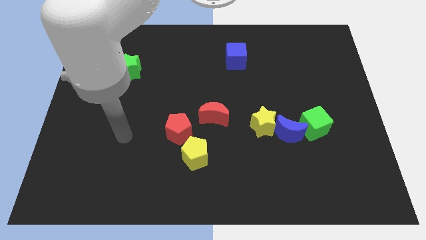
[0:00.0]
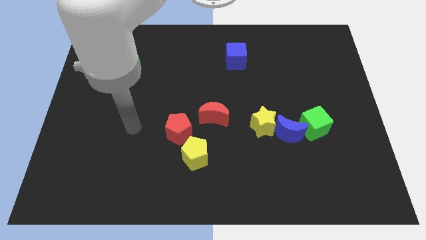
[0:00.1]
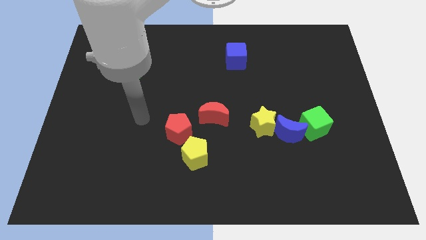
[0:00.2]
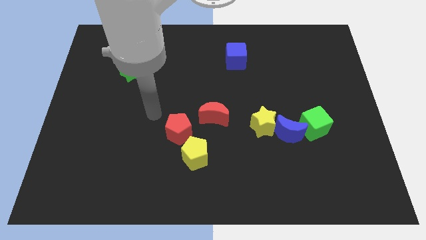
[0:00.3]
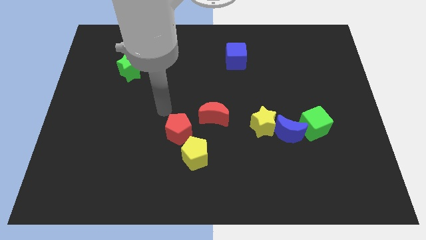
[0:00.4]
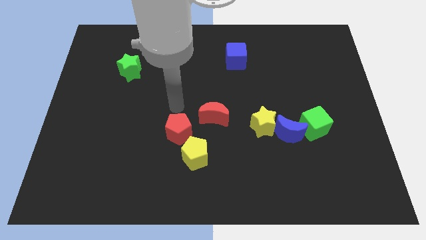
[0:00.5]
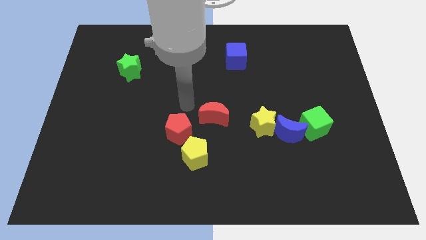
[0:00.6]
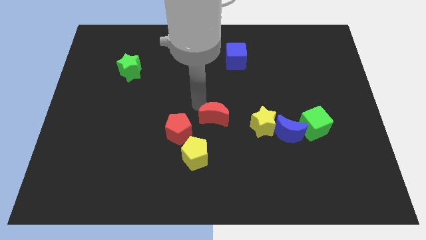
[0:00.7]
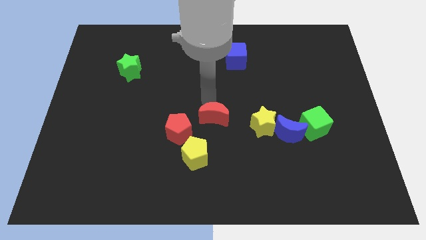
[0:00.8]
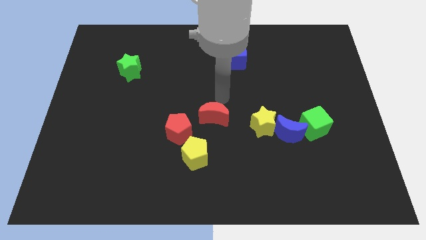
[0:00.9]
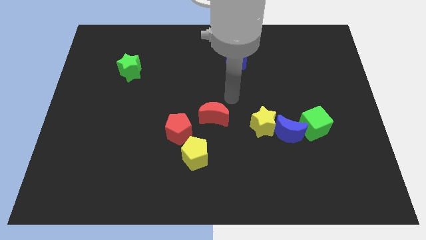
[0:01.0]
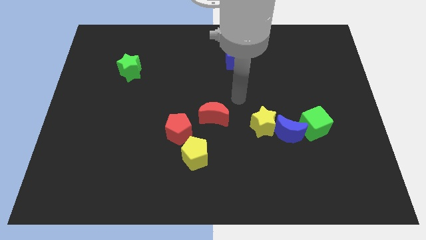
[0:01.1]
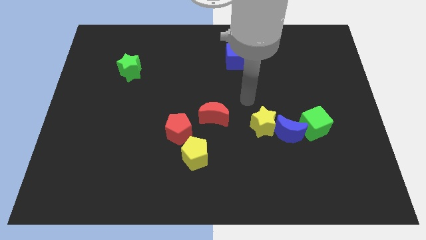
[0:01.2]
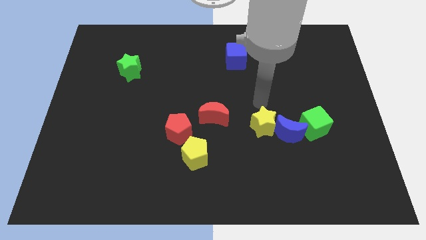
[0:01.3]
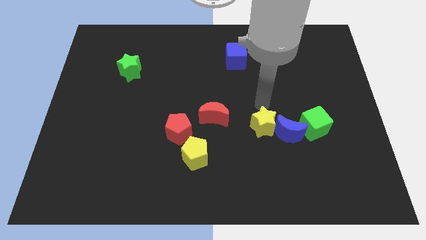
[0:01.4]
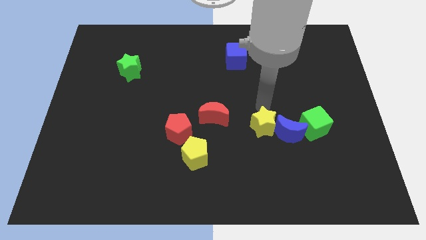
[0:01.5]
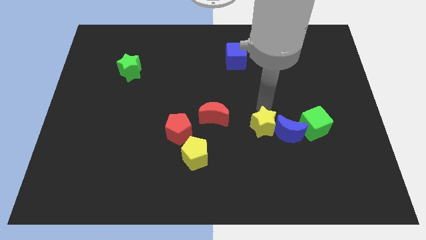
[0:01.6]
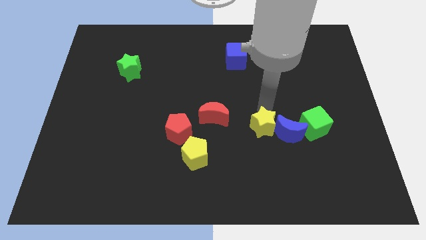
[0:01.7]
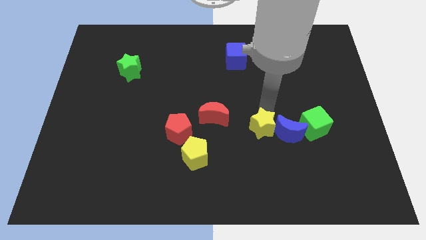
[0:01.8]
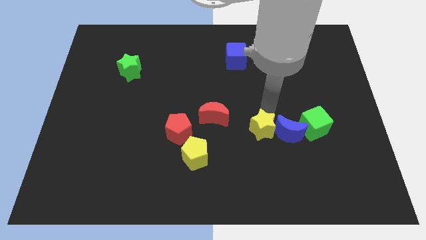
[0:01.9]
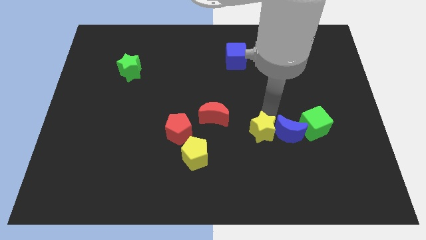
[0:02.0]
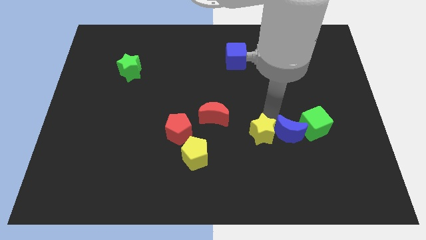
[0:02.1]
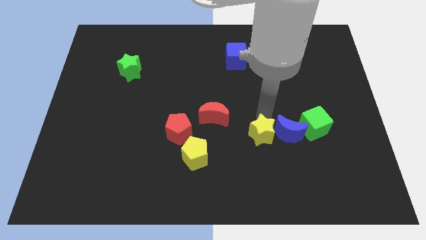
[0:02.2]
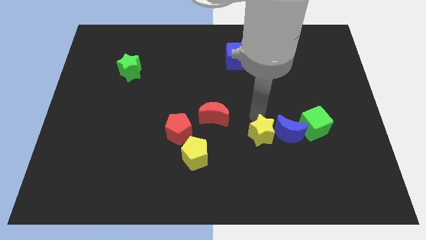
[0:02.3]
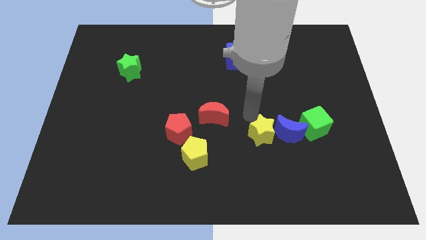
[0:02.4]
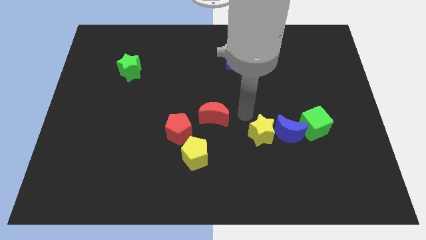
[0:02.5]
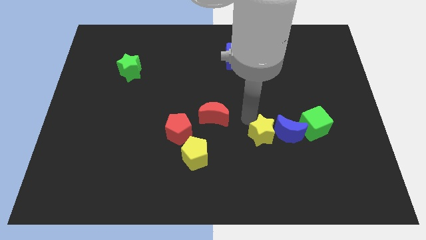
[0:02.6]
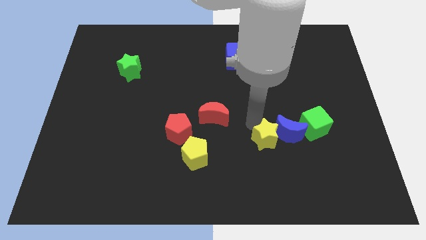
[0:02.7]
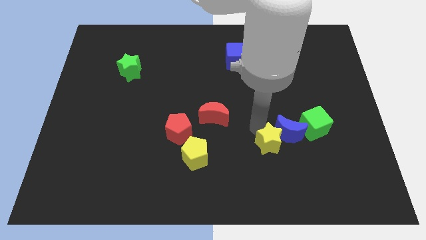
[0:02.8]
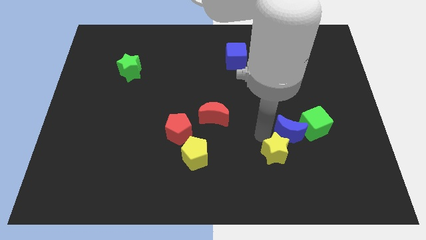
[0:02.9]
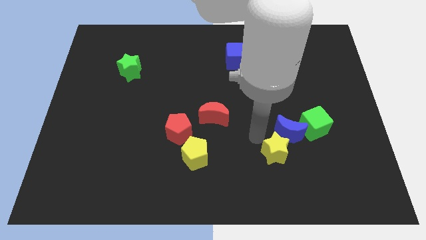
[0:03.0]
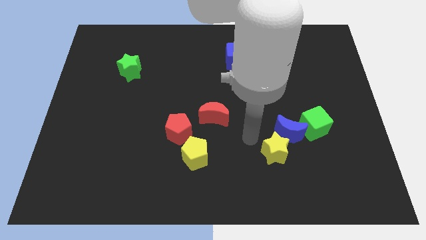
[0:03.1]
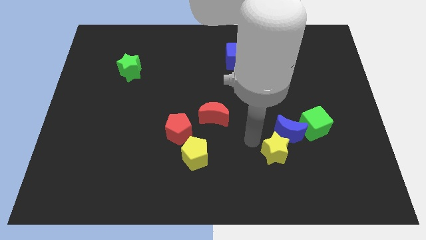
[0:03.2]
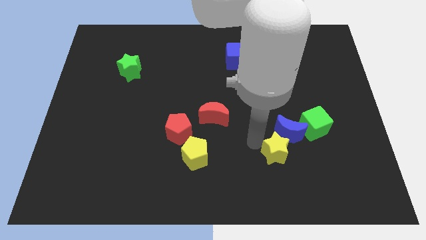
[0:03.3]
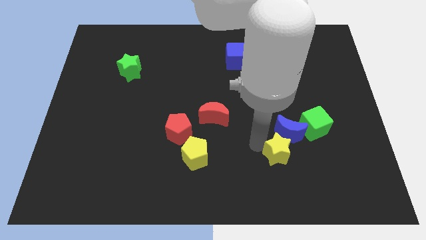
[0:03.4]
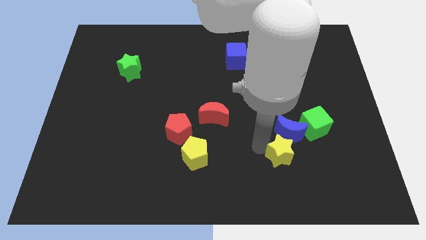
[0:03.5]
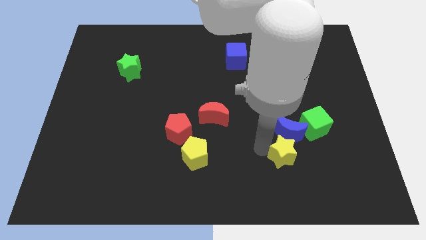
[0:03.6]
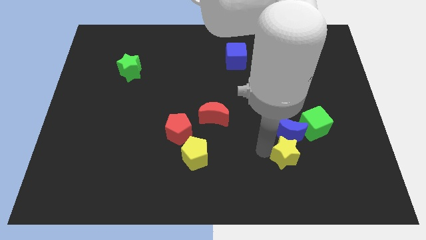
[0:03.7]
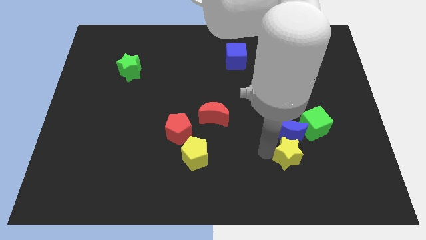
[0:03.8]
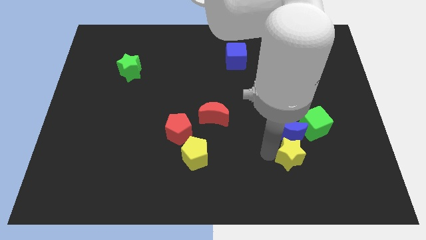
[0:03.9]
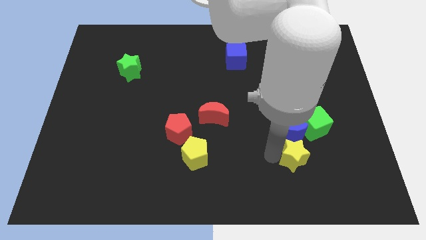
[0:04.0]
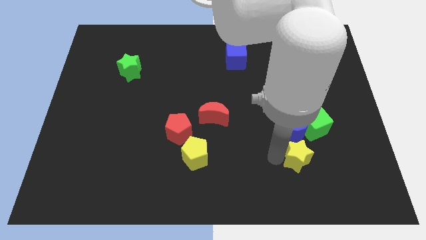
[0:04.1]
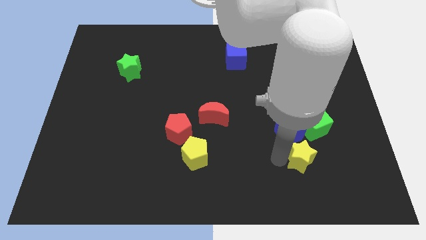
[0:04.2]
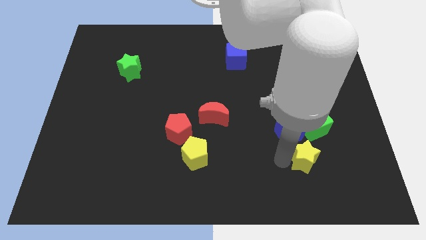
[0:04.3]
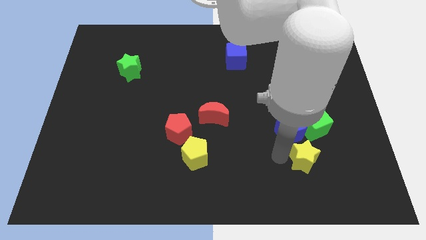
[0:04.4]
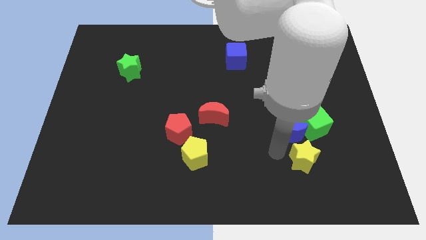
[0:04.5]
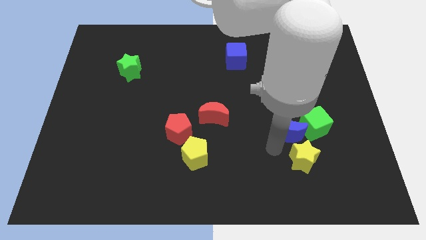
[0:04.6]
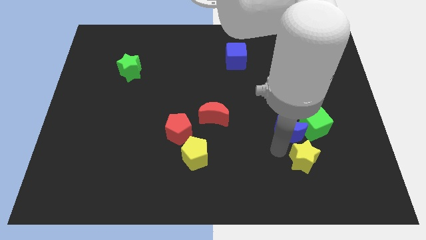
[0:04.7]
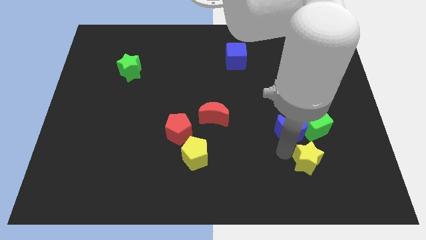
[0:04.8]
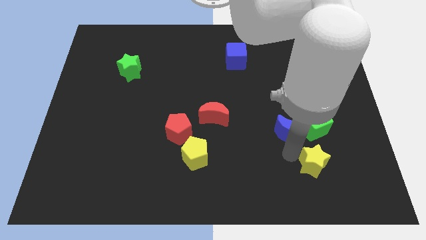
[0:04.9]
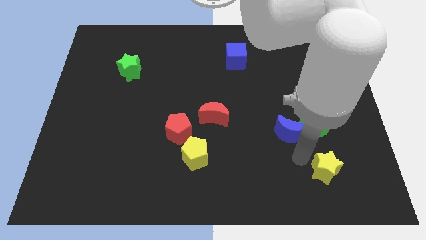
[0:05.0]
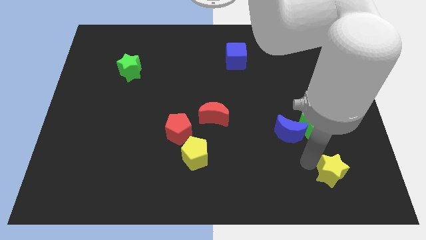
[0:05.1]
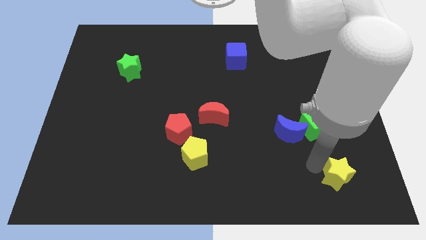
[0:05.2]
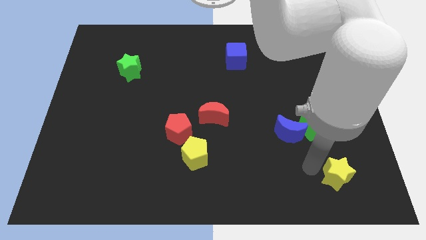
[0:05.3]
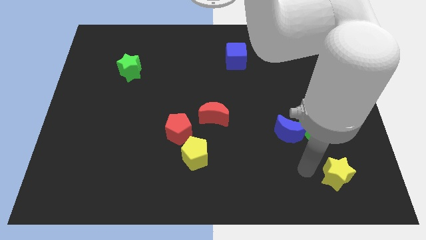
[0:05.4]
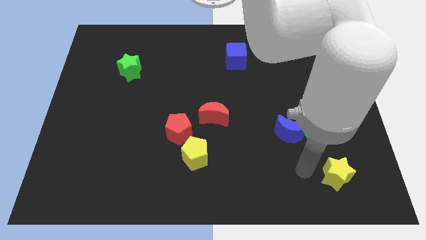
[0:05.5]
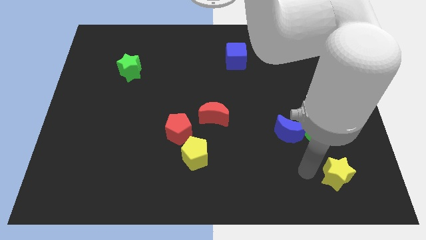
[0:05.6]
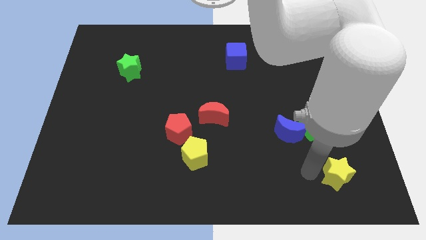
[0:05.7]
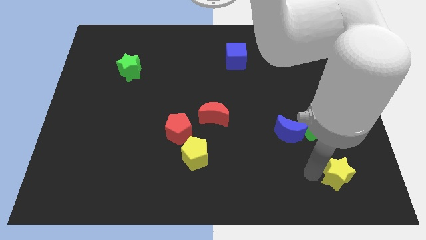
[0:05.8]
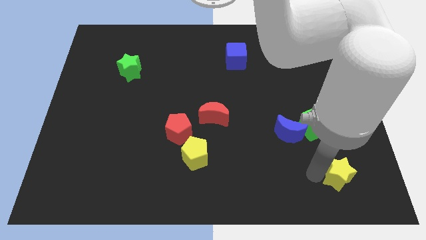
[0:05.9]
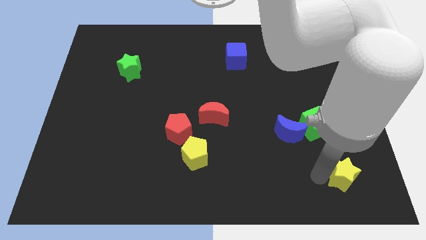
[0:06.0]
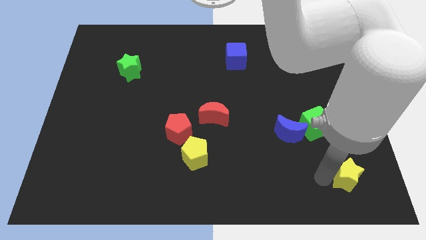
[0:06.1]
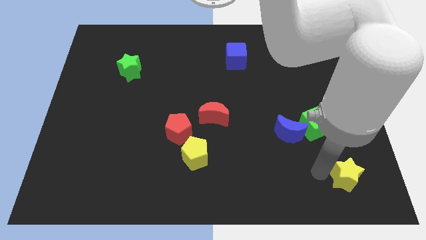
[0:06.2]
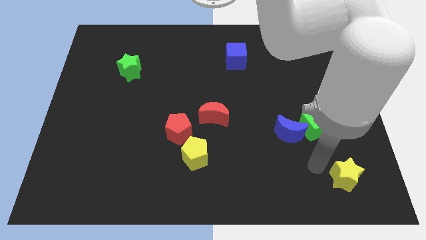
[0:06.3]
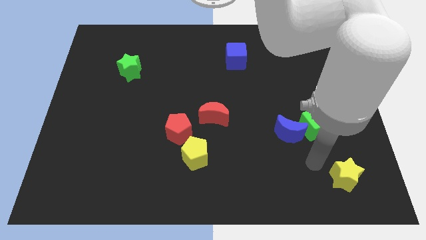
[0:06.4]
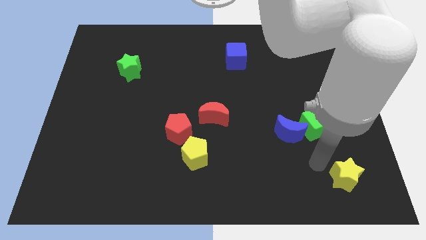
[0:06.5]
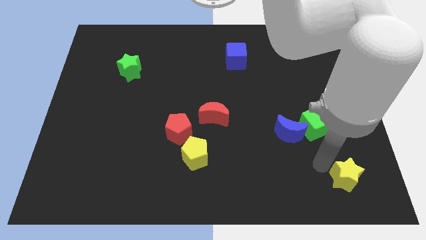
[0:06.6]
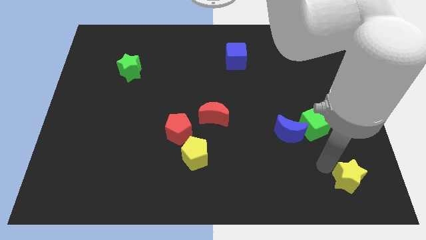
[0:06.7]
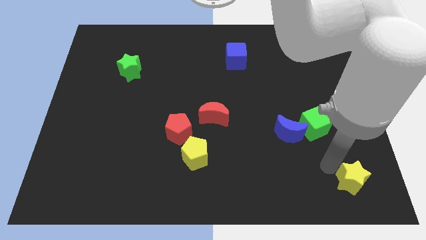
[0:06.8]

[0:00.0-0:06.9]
slide the yellow star to the bottom right of the board
